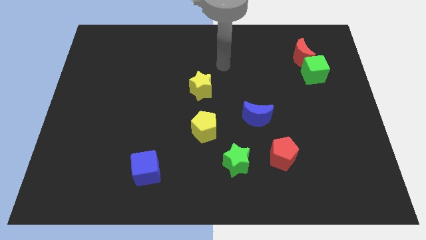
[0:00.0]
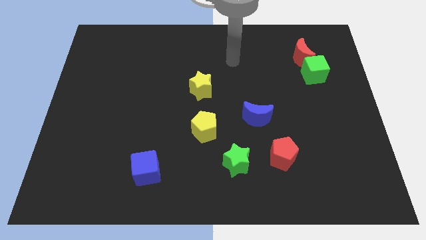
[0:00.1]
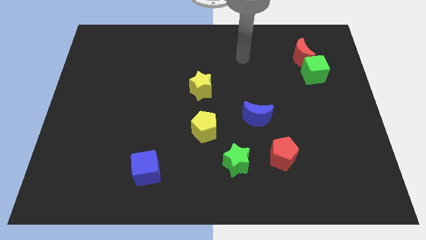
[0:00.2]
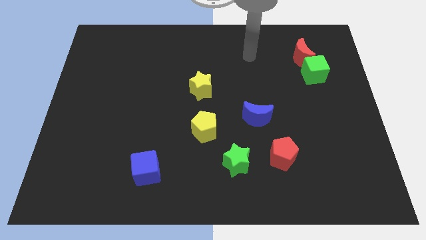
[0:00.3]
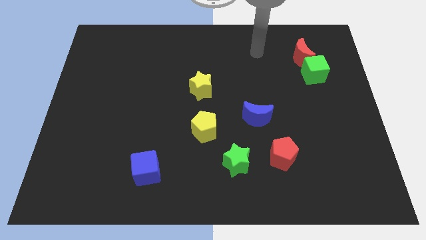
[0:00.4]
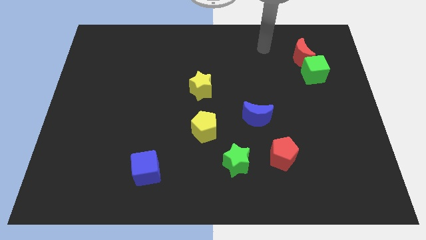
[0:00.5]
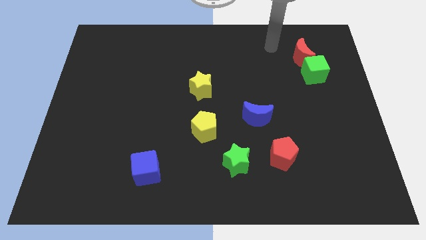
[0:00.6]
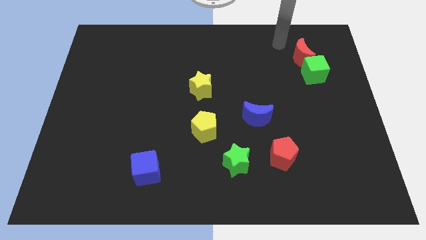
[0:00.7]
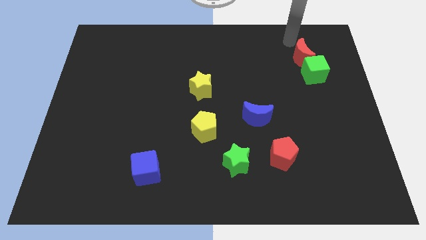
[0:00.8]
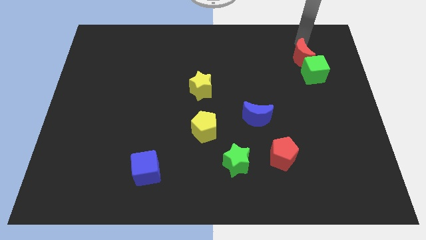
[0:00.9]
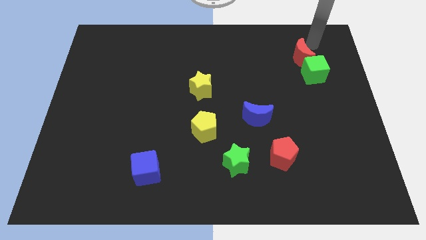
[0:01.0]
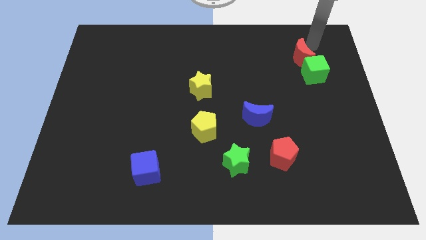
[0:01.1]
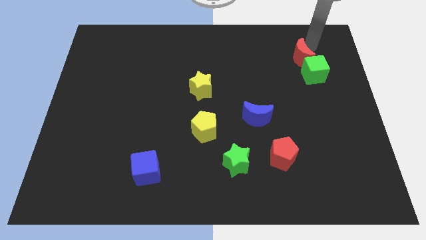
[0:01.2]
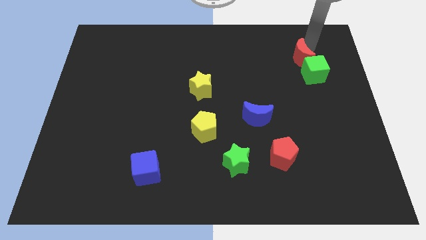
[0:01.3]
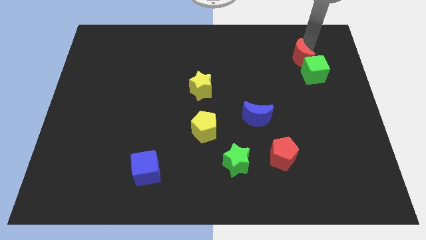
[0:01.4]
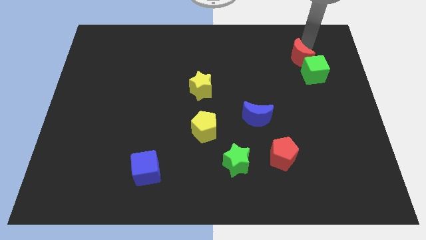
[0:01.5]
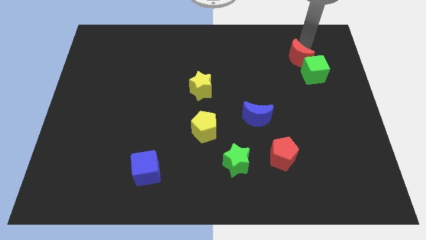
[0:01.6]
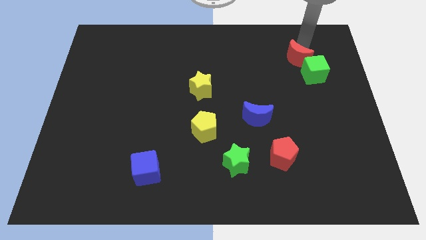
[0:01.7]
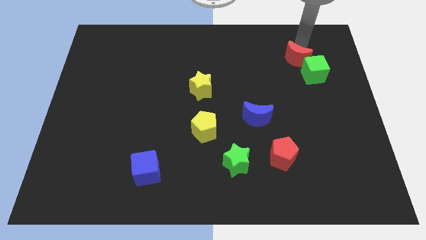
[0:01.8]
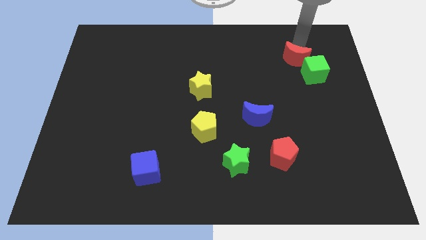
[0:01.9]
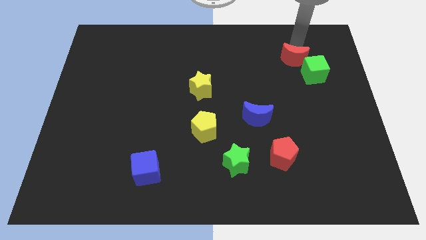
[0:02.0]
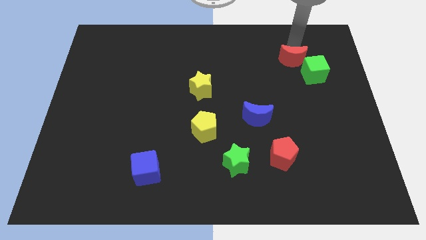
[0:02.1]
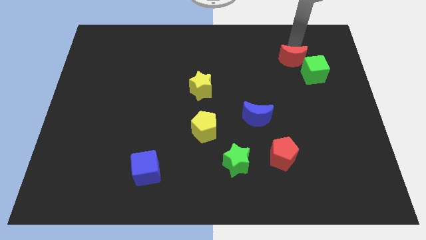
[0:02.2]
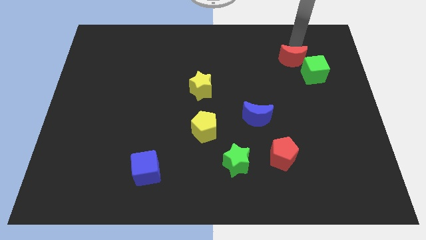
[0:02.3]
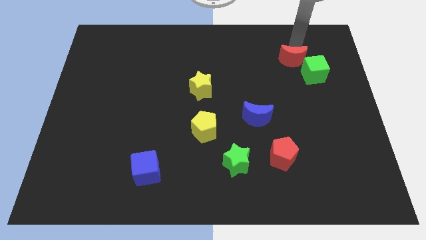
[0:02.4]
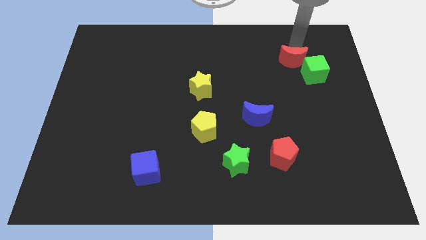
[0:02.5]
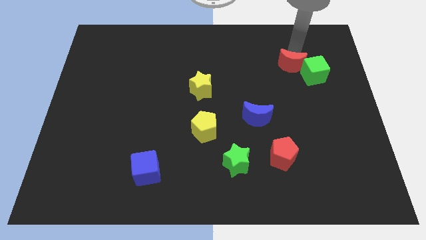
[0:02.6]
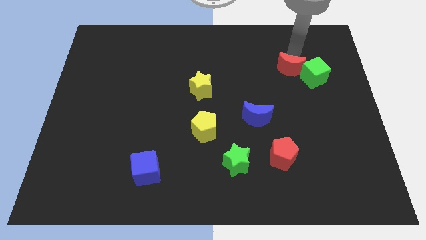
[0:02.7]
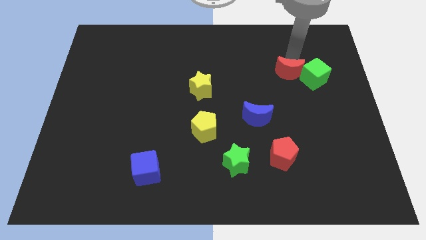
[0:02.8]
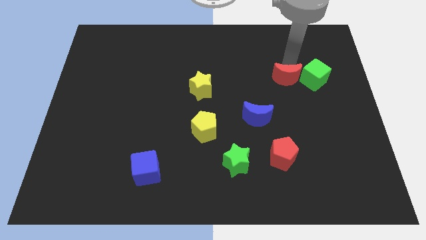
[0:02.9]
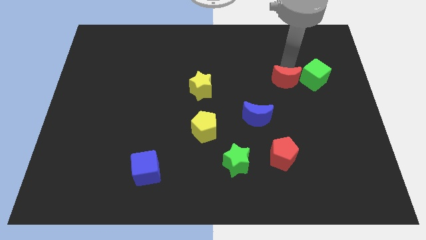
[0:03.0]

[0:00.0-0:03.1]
slightly slide the red moon down

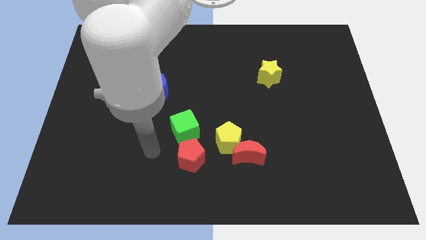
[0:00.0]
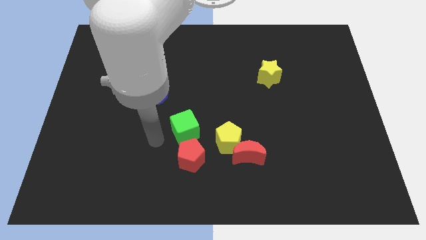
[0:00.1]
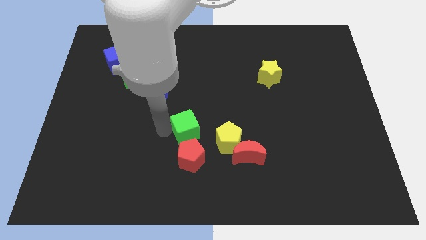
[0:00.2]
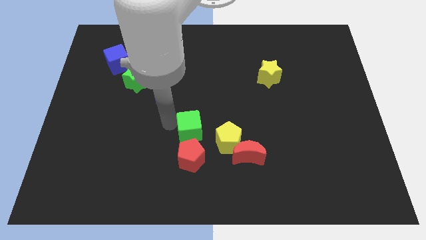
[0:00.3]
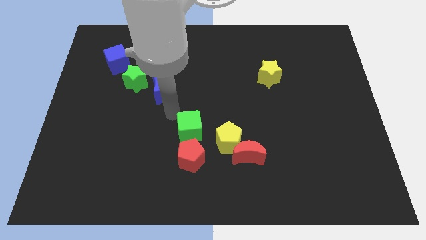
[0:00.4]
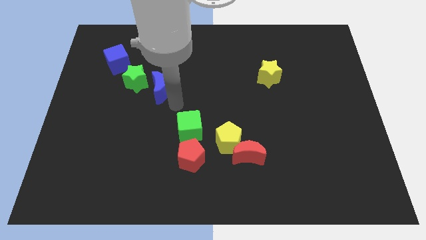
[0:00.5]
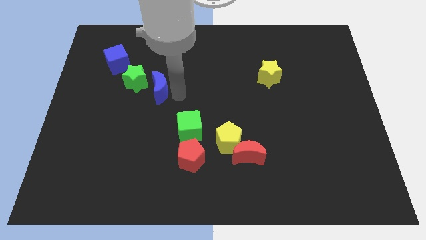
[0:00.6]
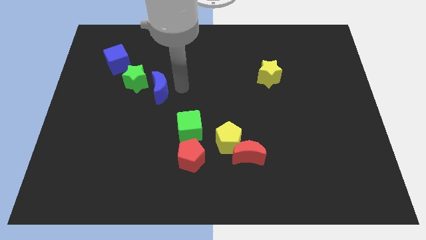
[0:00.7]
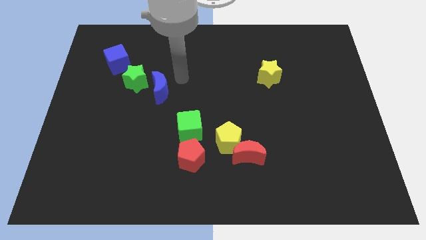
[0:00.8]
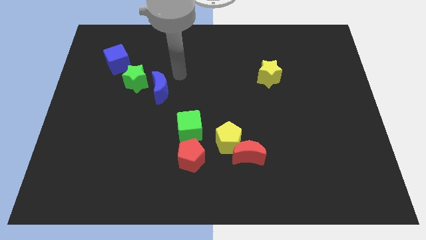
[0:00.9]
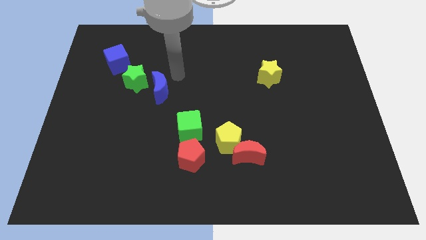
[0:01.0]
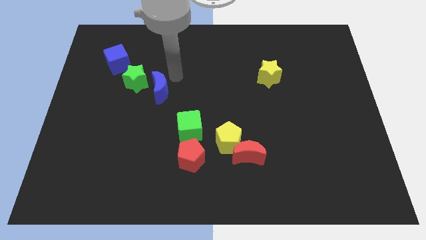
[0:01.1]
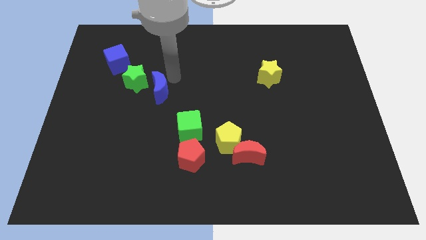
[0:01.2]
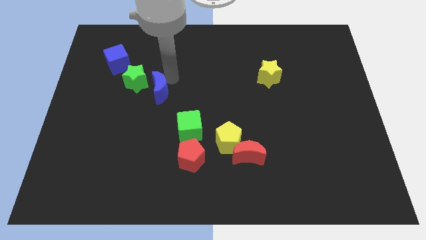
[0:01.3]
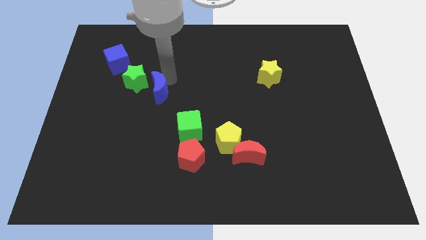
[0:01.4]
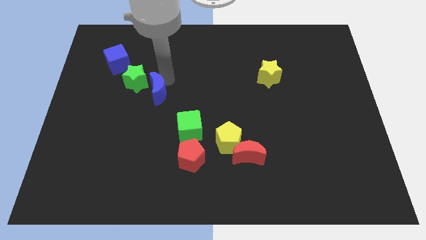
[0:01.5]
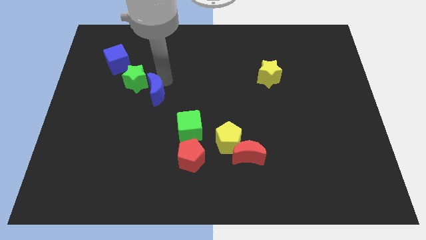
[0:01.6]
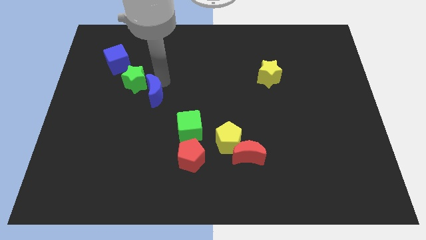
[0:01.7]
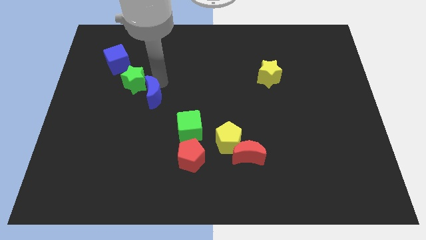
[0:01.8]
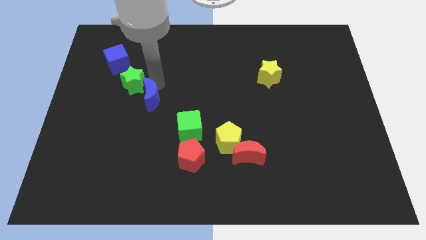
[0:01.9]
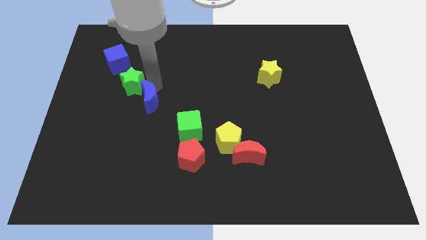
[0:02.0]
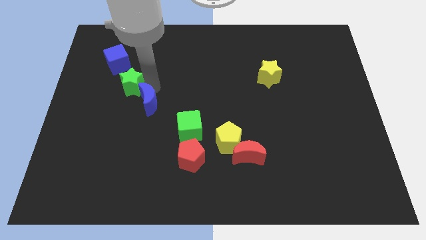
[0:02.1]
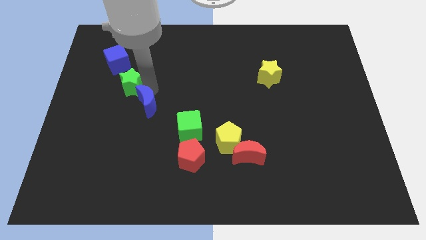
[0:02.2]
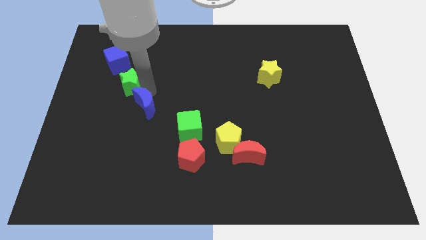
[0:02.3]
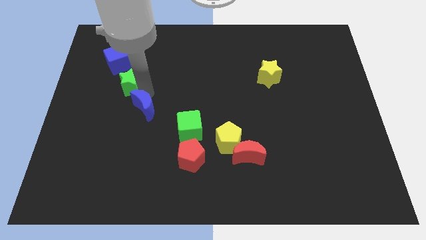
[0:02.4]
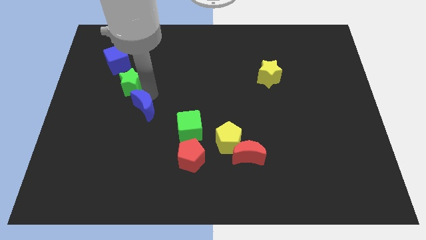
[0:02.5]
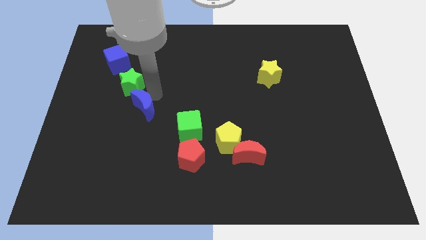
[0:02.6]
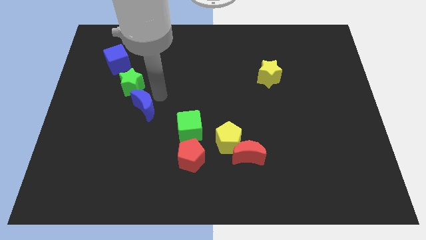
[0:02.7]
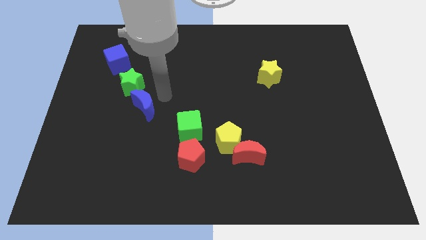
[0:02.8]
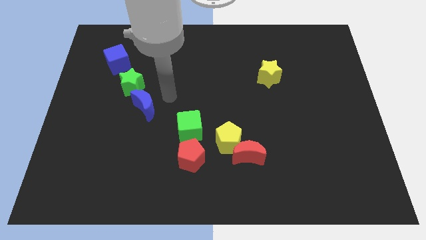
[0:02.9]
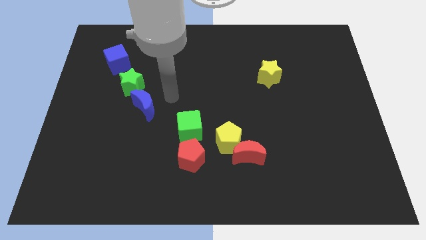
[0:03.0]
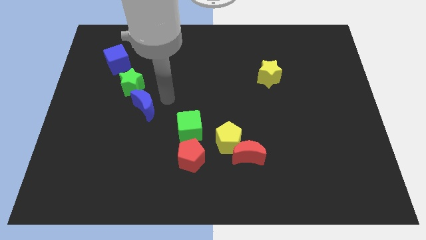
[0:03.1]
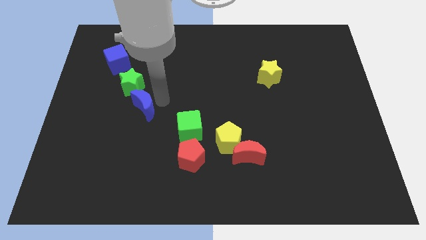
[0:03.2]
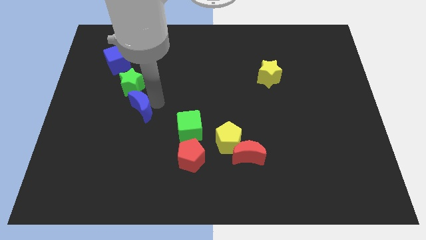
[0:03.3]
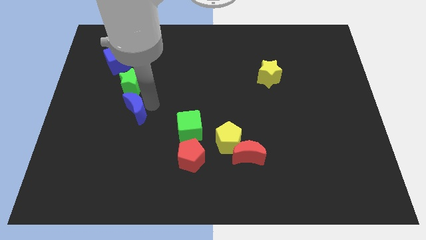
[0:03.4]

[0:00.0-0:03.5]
push the blue moon somewhat down and then to the left

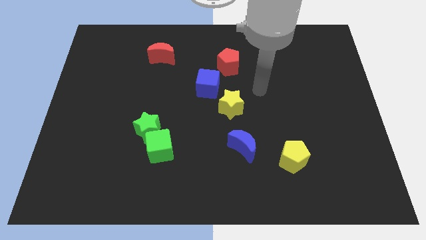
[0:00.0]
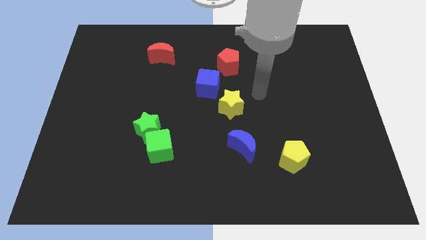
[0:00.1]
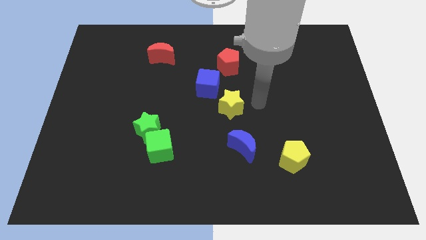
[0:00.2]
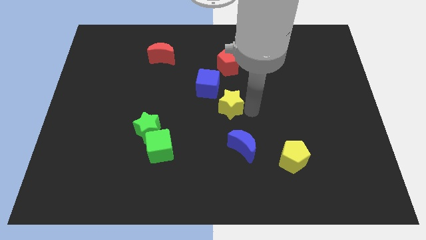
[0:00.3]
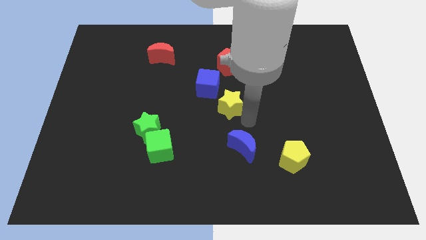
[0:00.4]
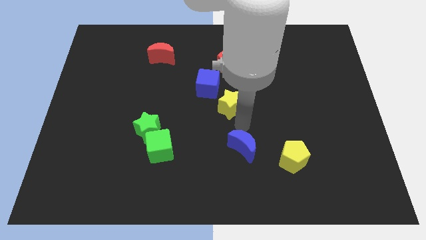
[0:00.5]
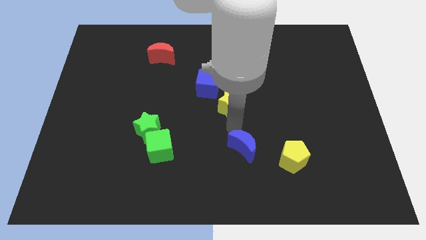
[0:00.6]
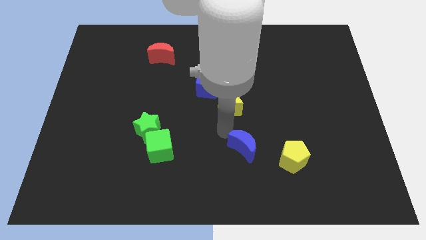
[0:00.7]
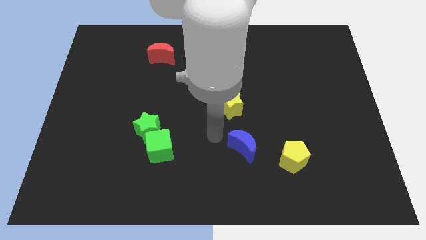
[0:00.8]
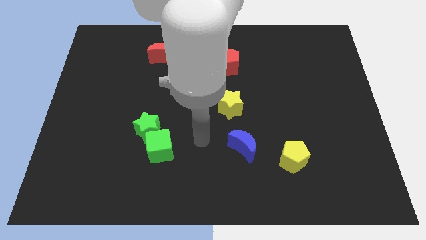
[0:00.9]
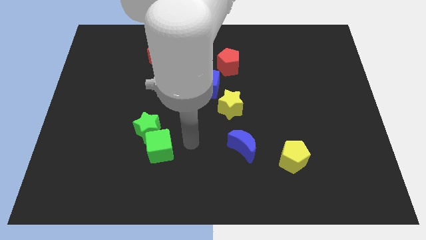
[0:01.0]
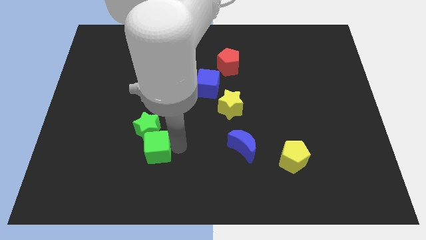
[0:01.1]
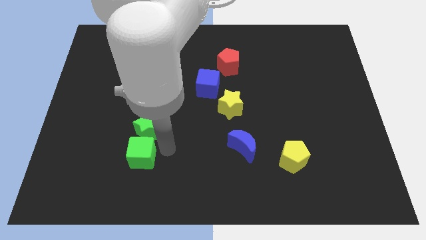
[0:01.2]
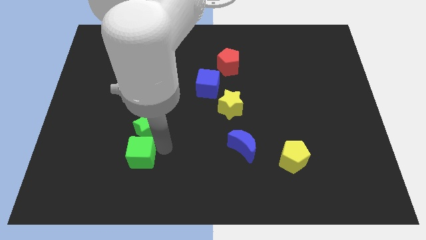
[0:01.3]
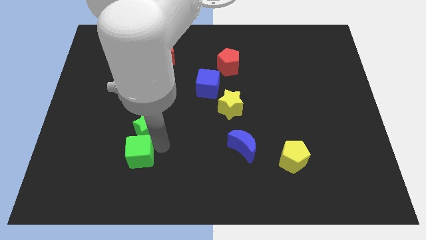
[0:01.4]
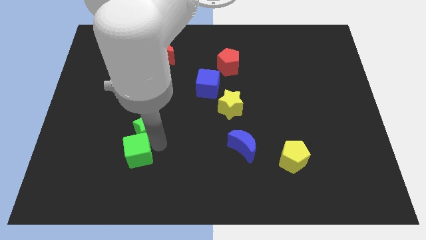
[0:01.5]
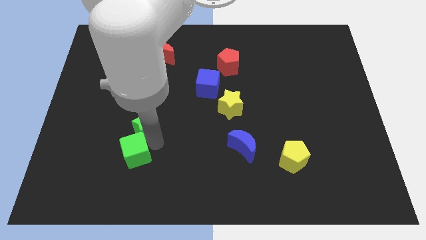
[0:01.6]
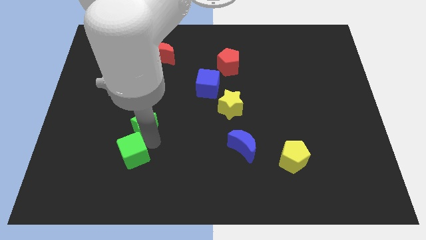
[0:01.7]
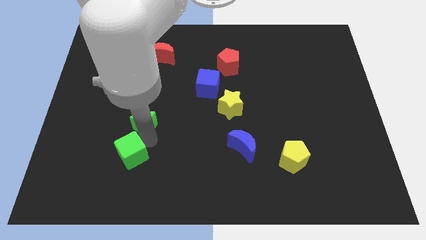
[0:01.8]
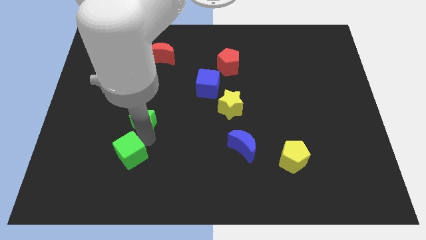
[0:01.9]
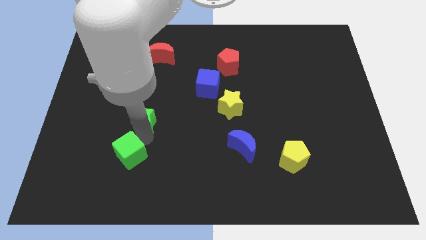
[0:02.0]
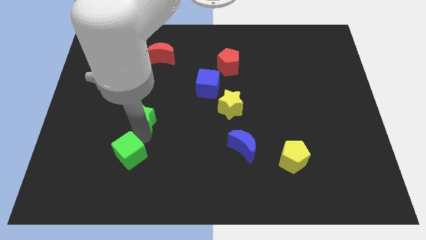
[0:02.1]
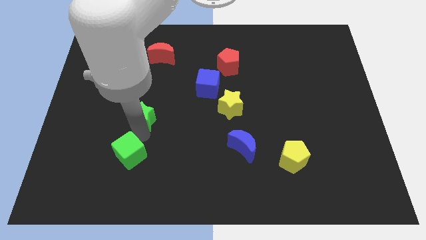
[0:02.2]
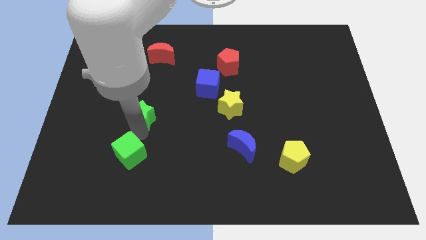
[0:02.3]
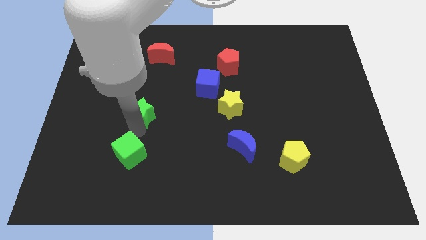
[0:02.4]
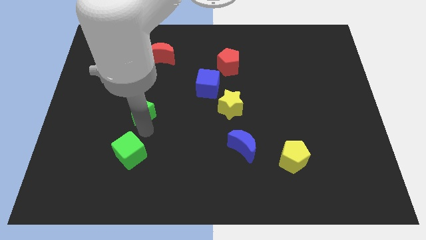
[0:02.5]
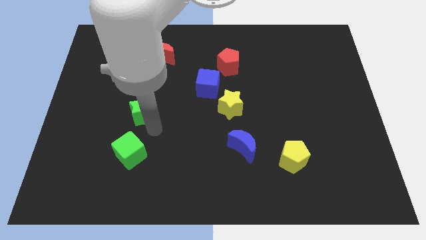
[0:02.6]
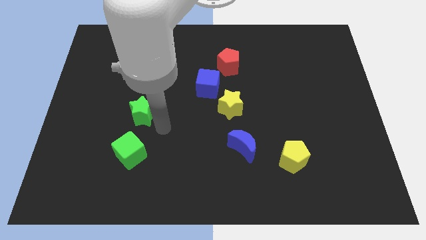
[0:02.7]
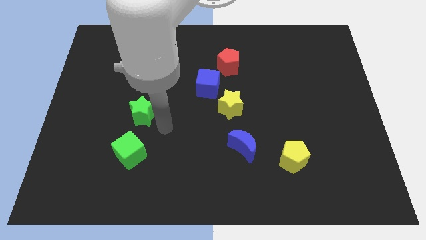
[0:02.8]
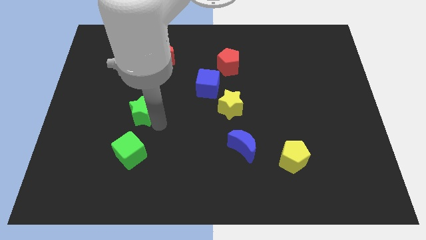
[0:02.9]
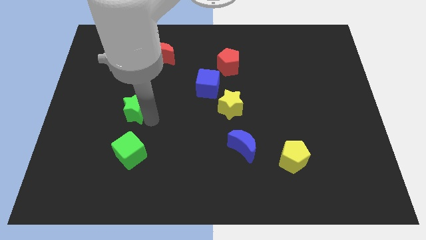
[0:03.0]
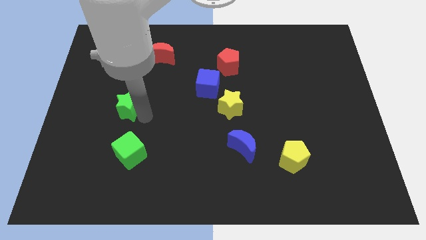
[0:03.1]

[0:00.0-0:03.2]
slide the green star a little bit upwards and left
